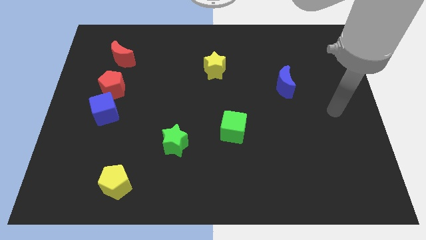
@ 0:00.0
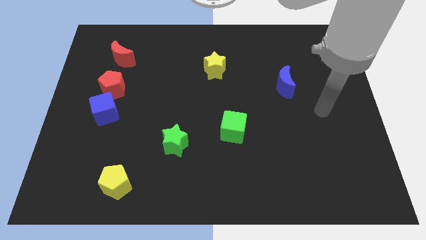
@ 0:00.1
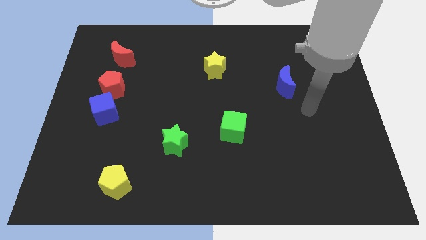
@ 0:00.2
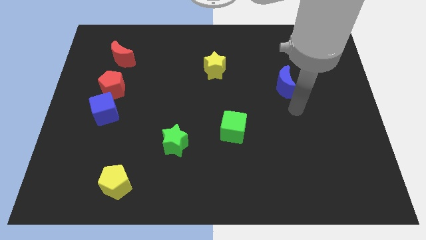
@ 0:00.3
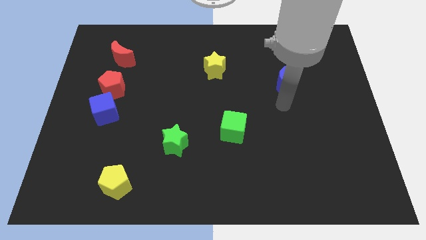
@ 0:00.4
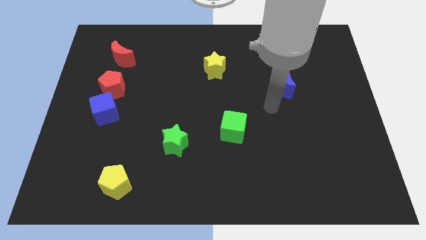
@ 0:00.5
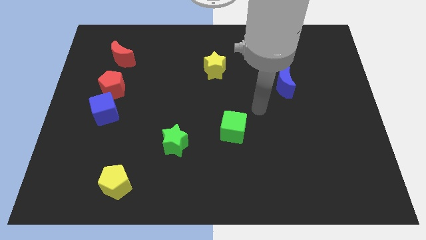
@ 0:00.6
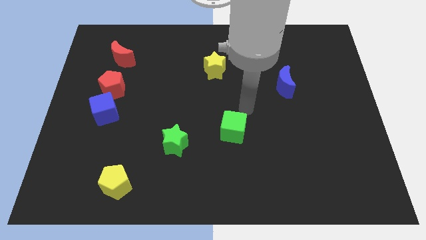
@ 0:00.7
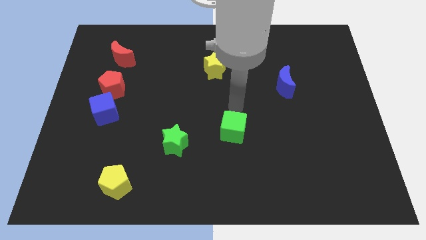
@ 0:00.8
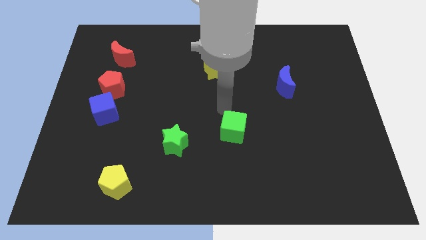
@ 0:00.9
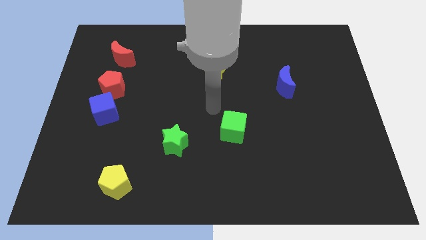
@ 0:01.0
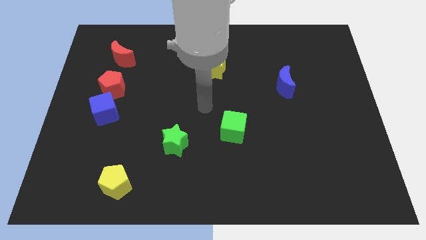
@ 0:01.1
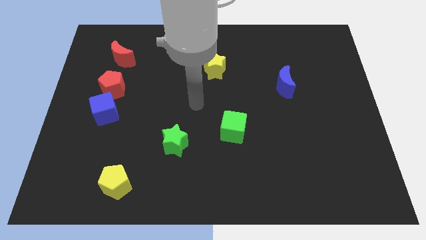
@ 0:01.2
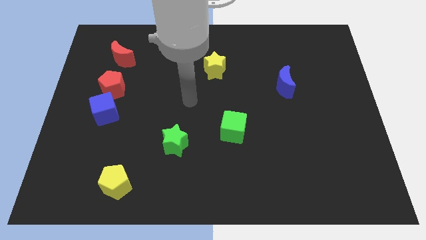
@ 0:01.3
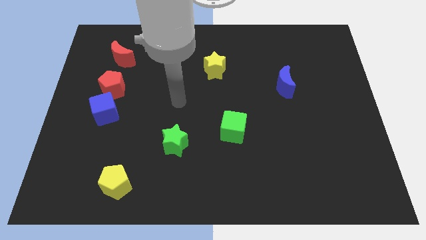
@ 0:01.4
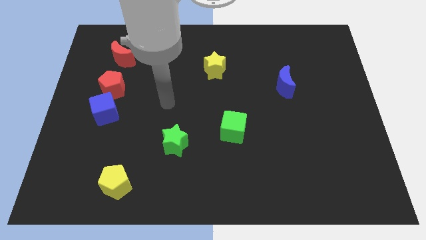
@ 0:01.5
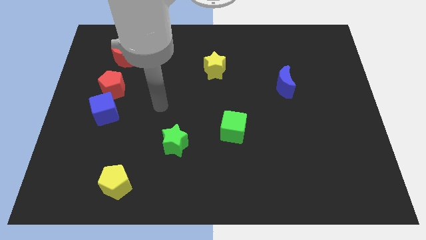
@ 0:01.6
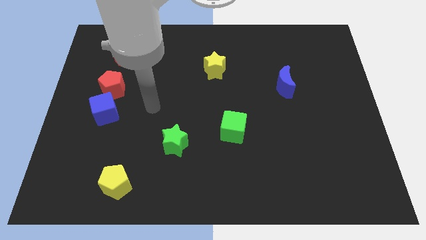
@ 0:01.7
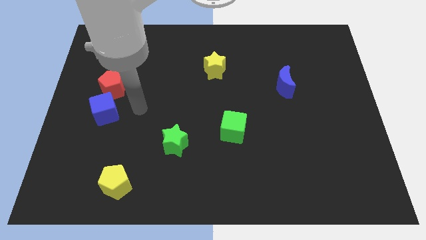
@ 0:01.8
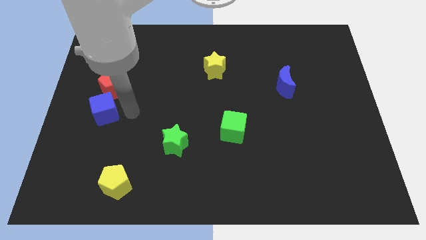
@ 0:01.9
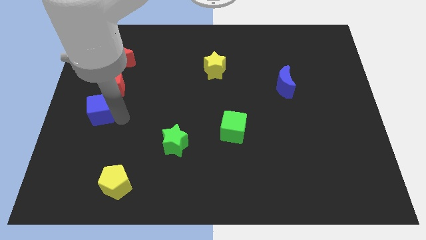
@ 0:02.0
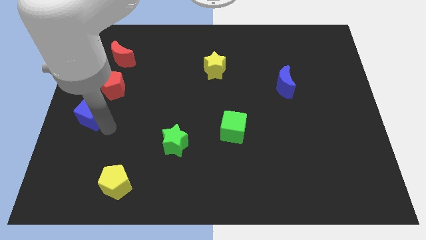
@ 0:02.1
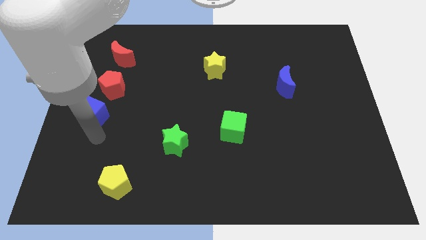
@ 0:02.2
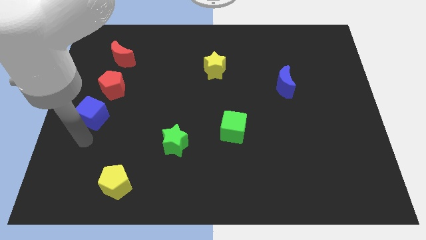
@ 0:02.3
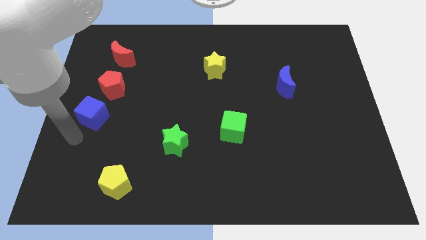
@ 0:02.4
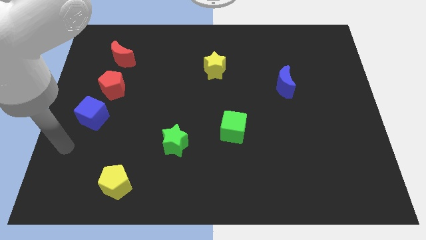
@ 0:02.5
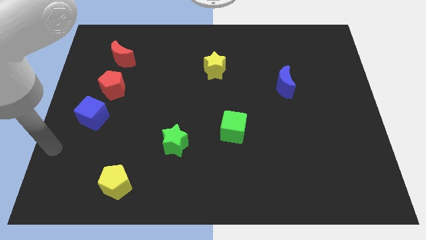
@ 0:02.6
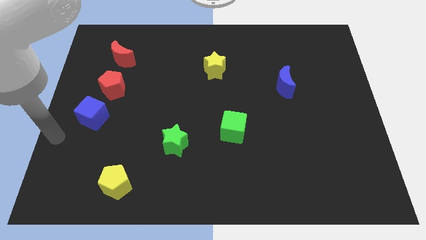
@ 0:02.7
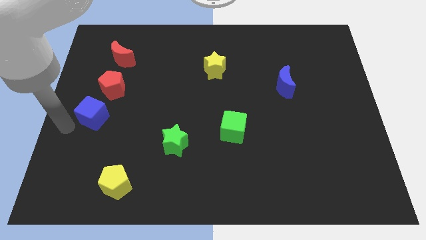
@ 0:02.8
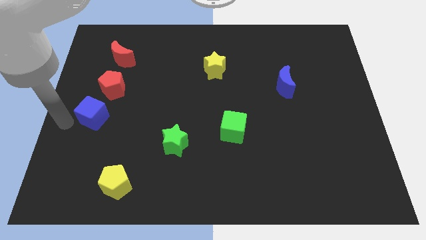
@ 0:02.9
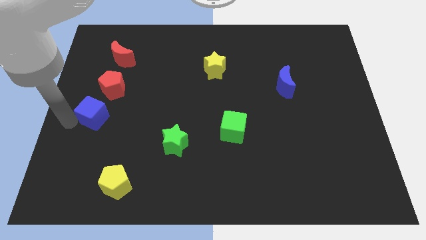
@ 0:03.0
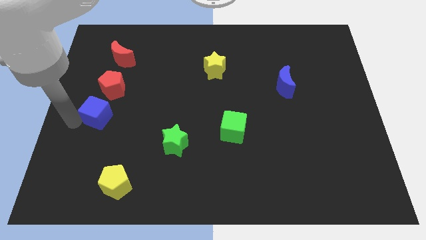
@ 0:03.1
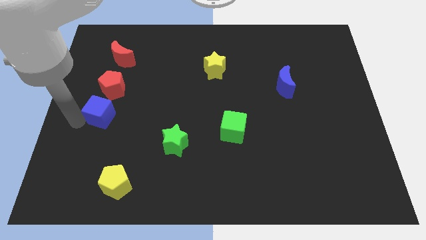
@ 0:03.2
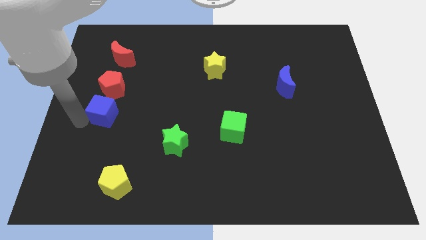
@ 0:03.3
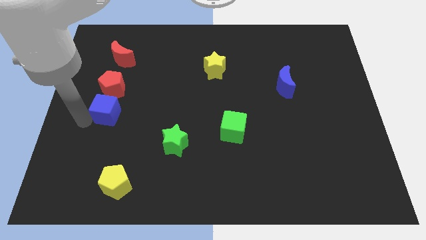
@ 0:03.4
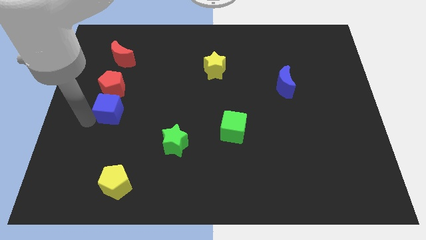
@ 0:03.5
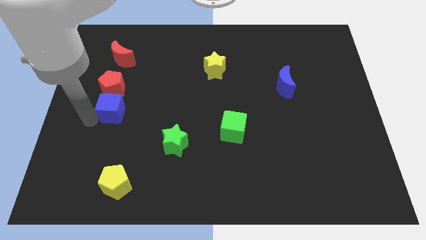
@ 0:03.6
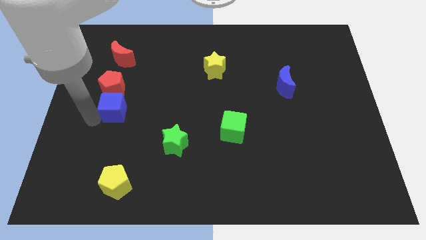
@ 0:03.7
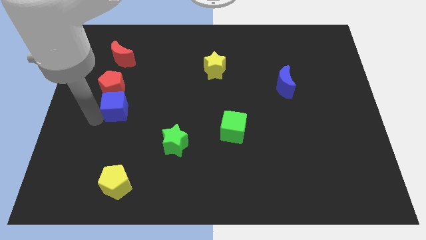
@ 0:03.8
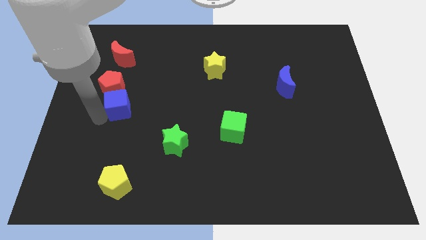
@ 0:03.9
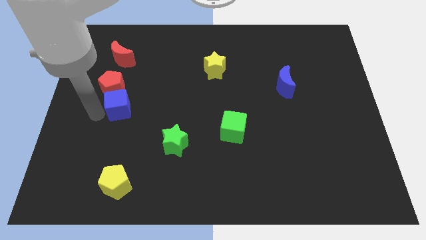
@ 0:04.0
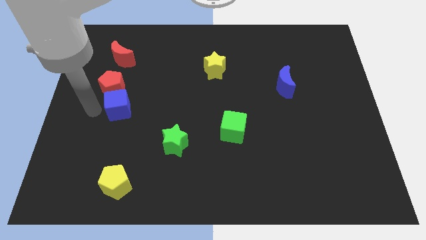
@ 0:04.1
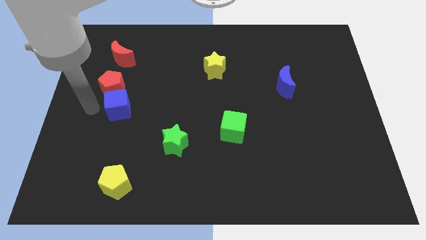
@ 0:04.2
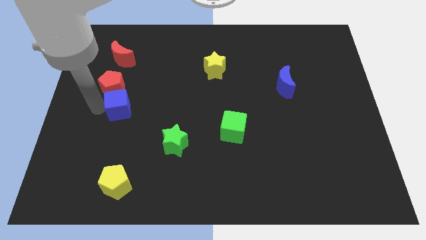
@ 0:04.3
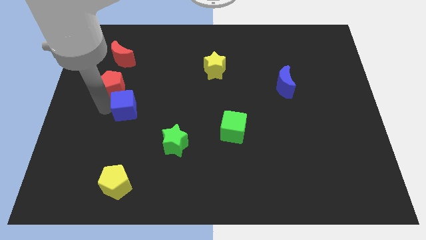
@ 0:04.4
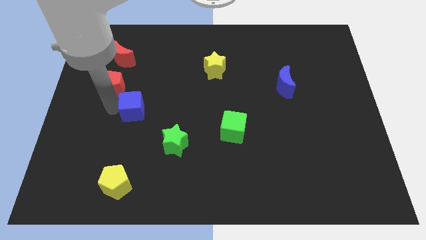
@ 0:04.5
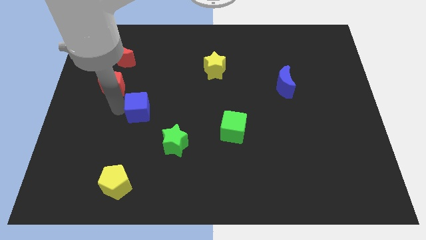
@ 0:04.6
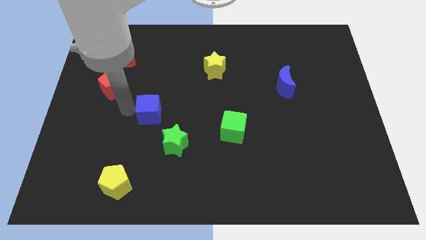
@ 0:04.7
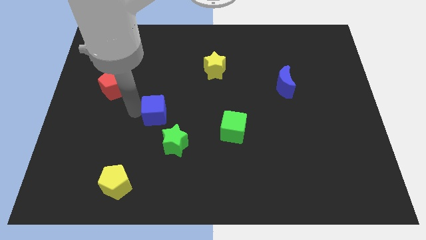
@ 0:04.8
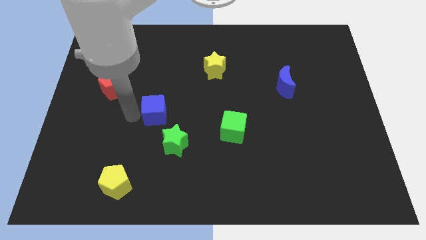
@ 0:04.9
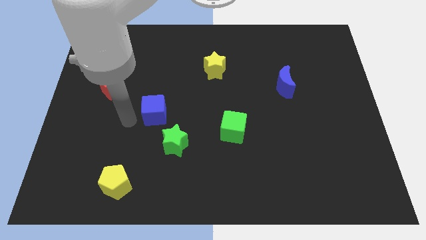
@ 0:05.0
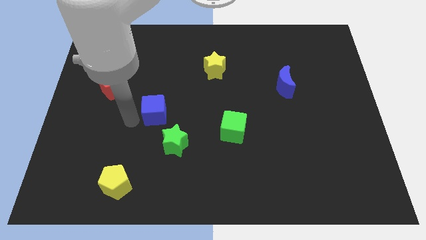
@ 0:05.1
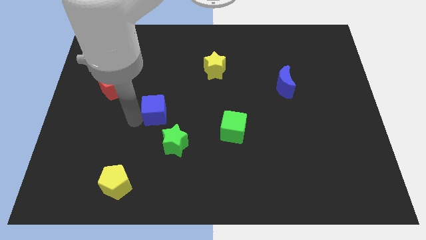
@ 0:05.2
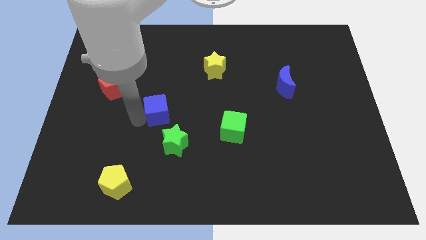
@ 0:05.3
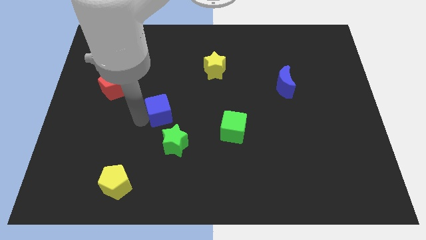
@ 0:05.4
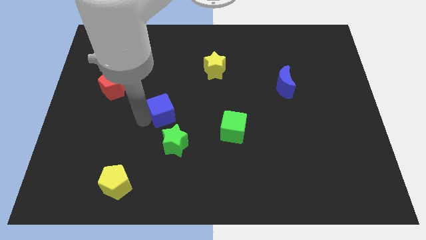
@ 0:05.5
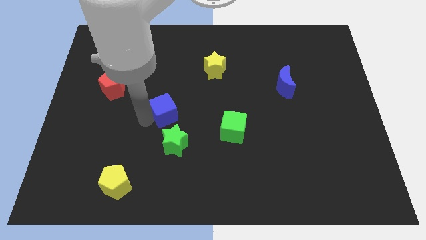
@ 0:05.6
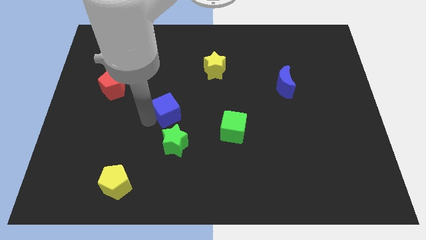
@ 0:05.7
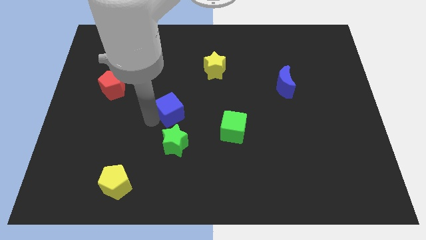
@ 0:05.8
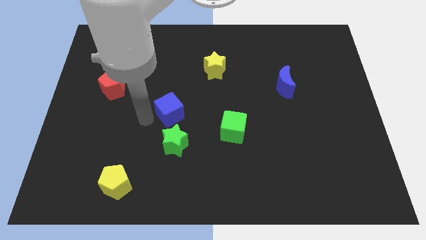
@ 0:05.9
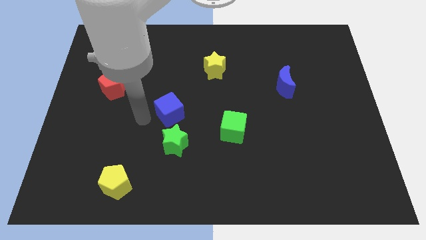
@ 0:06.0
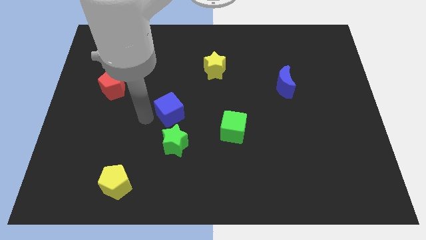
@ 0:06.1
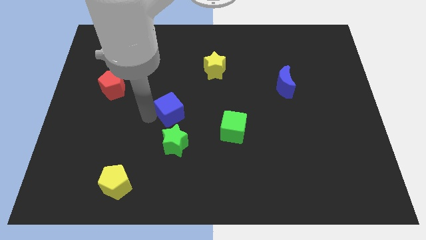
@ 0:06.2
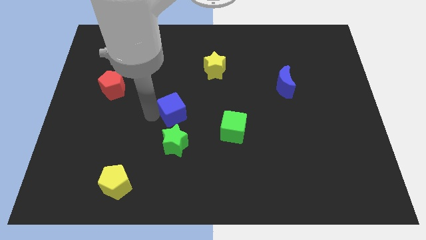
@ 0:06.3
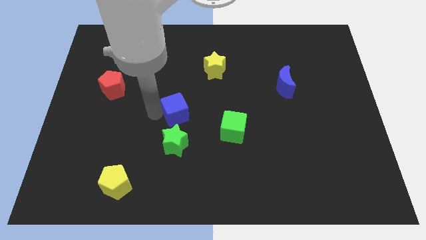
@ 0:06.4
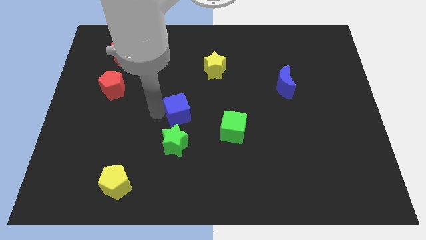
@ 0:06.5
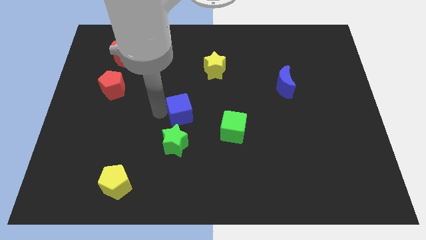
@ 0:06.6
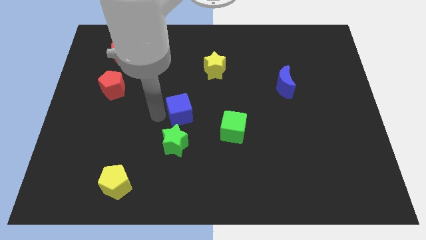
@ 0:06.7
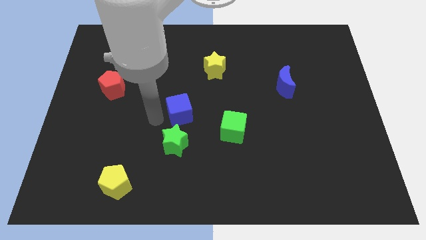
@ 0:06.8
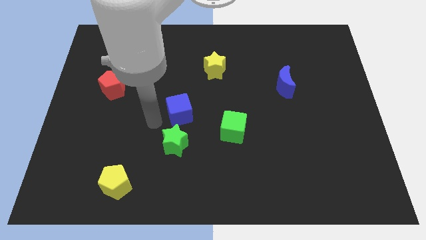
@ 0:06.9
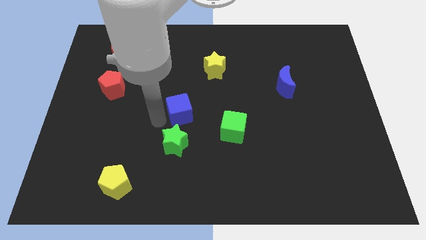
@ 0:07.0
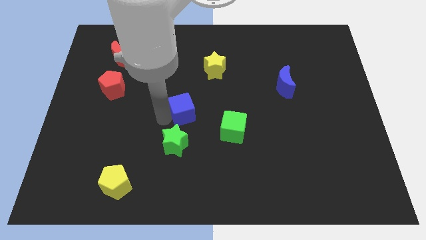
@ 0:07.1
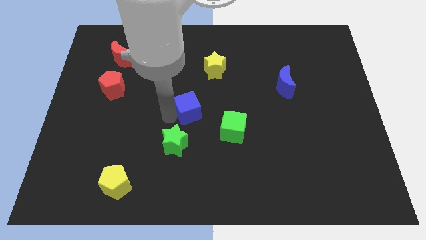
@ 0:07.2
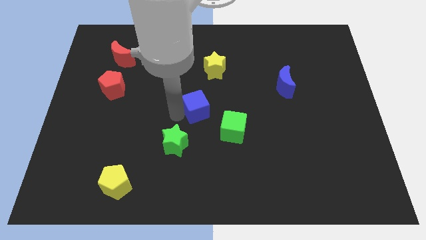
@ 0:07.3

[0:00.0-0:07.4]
slide the blue cube to the bottom side of the yellow star
